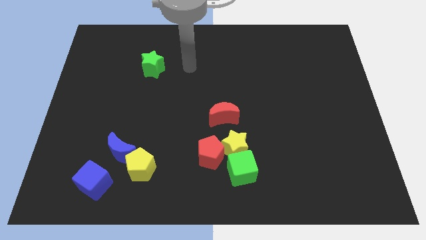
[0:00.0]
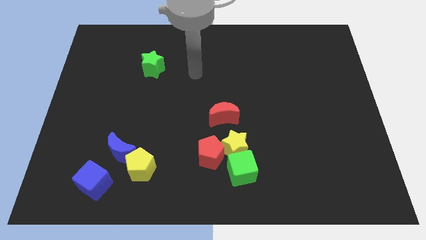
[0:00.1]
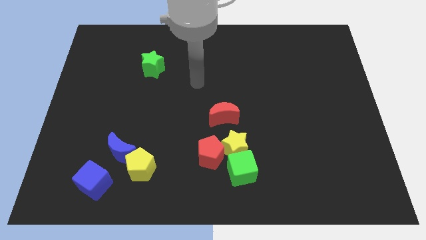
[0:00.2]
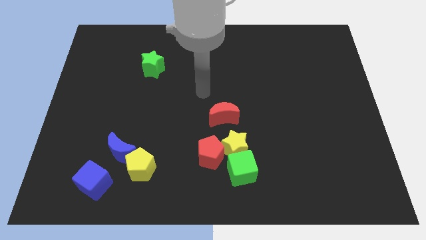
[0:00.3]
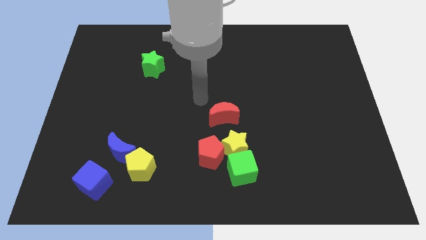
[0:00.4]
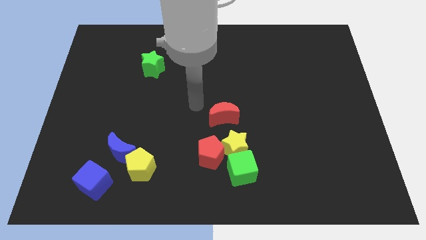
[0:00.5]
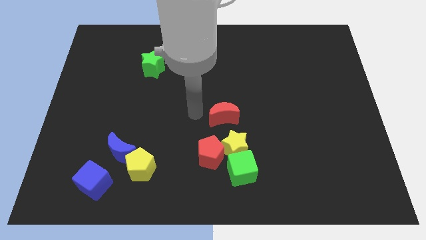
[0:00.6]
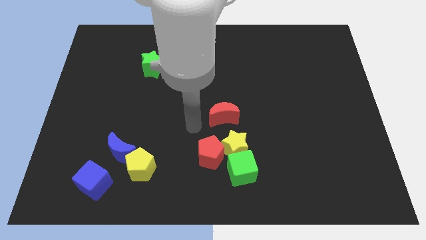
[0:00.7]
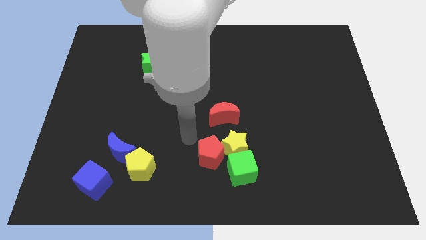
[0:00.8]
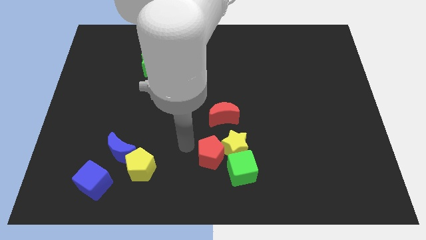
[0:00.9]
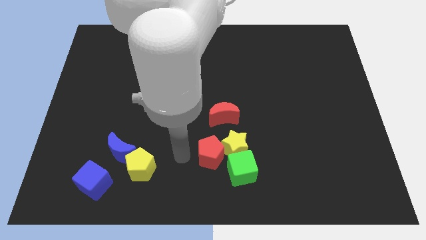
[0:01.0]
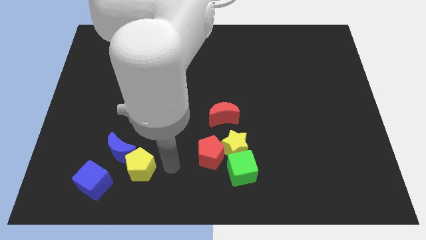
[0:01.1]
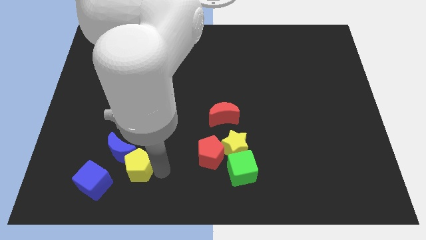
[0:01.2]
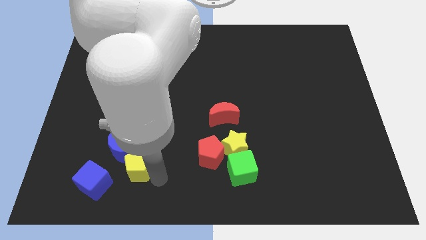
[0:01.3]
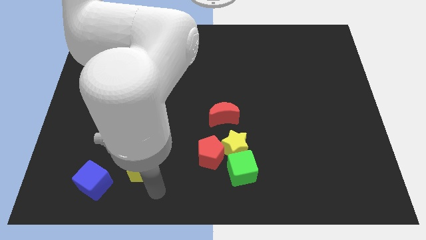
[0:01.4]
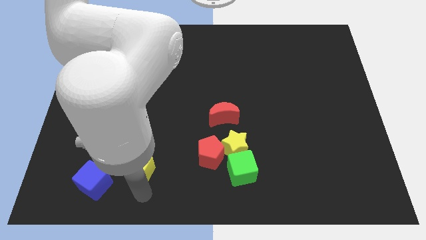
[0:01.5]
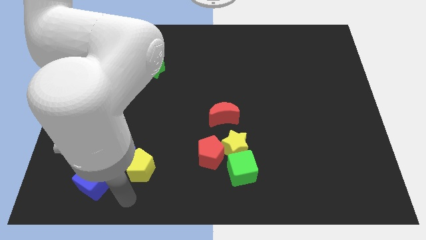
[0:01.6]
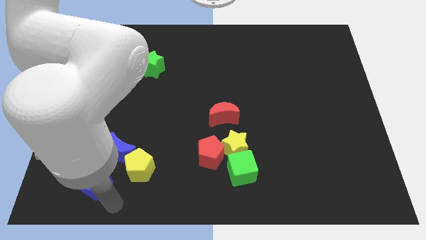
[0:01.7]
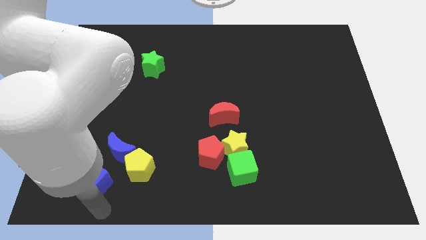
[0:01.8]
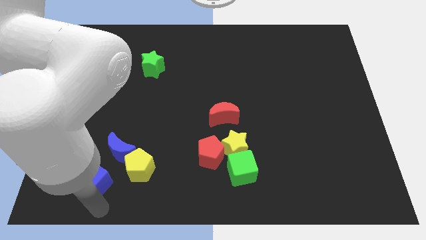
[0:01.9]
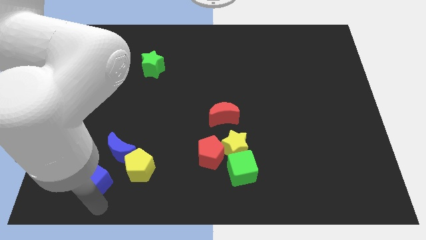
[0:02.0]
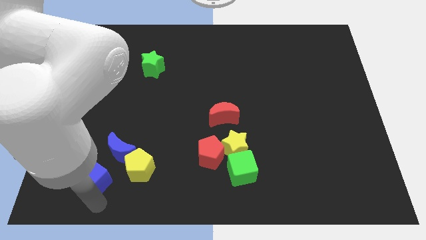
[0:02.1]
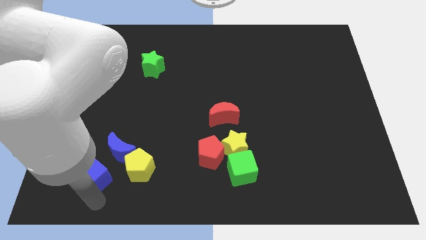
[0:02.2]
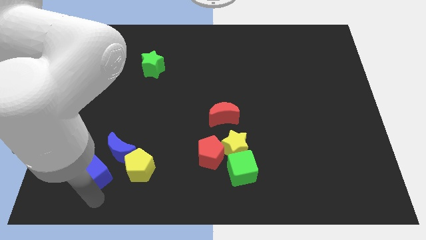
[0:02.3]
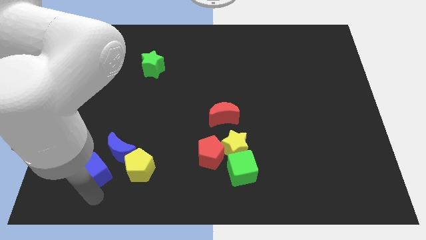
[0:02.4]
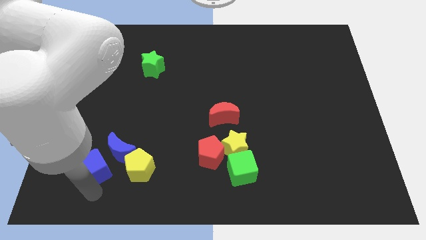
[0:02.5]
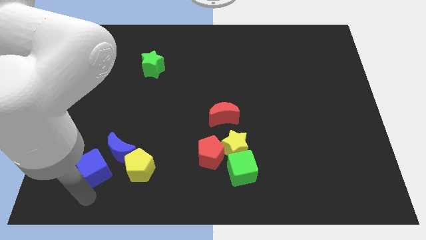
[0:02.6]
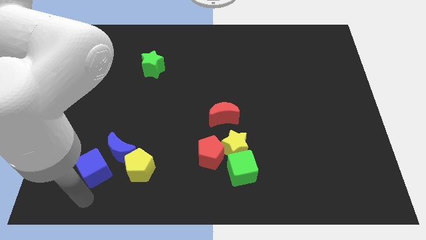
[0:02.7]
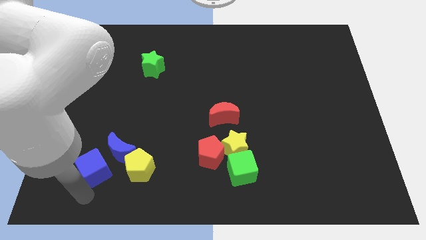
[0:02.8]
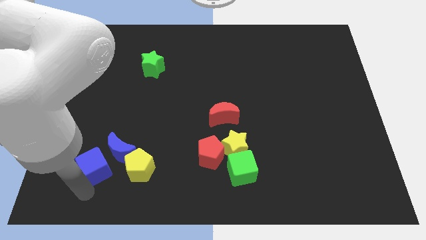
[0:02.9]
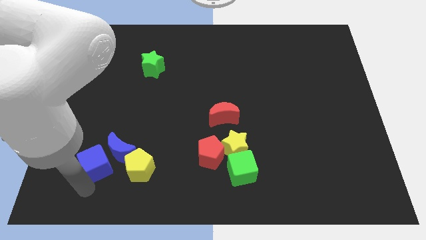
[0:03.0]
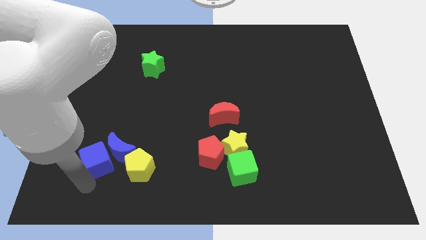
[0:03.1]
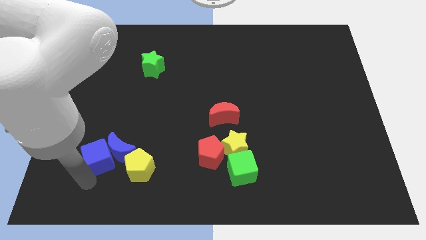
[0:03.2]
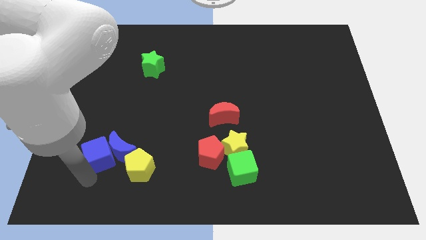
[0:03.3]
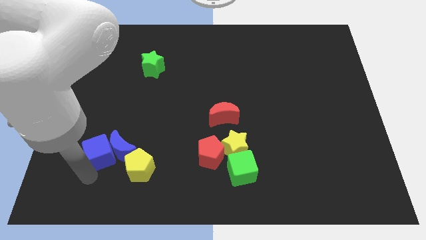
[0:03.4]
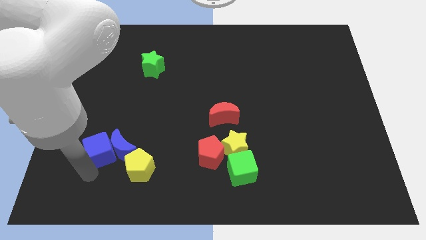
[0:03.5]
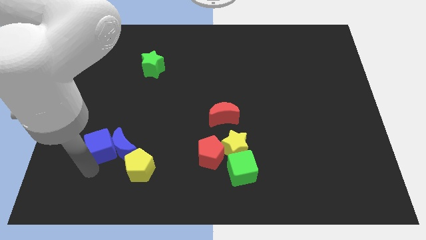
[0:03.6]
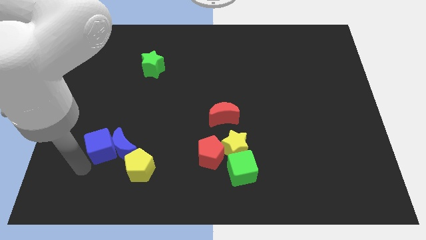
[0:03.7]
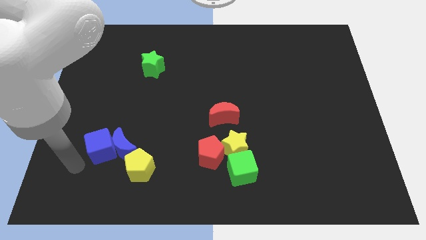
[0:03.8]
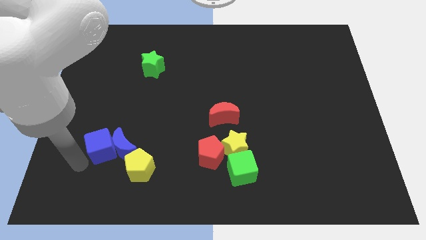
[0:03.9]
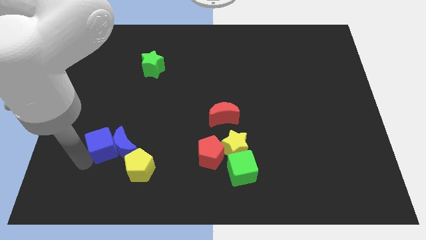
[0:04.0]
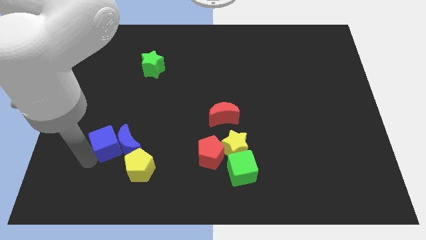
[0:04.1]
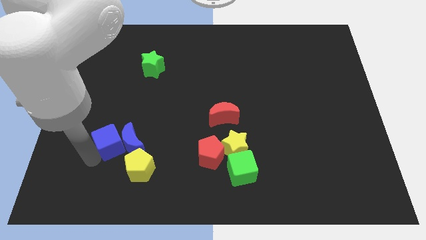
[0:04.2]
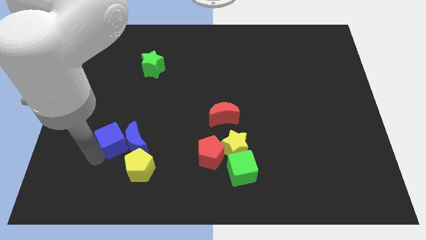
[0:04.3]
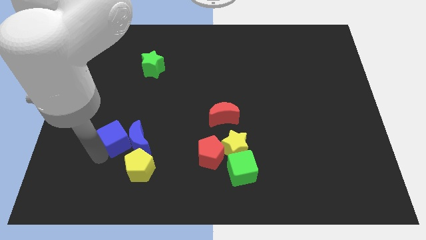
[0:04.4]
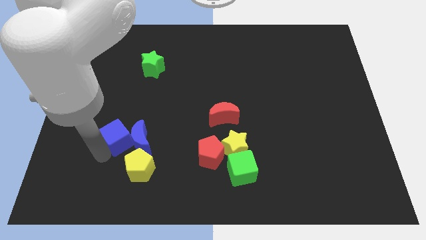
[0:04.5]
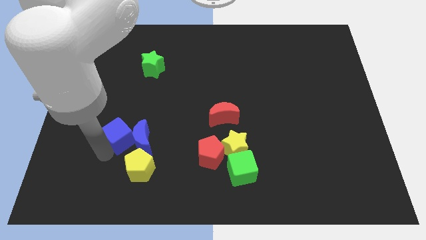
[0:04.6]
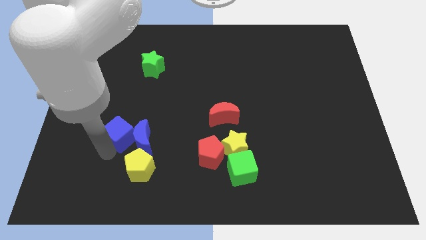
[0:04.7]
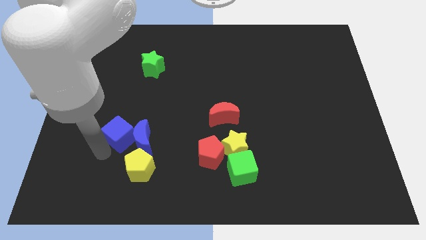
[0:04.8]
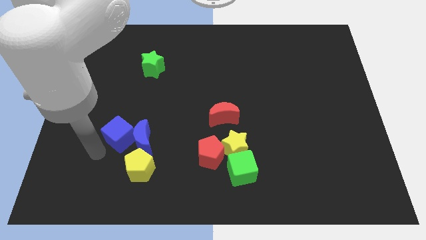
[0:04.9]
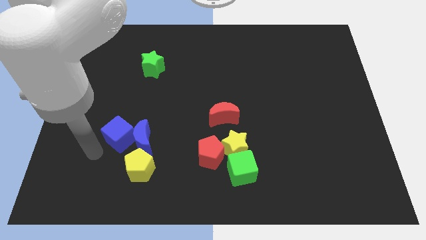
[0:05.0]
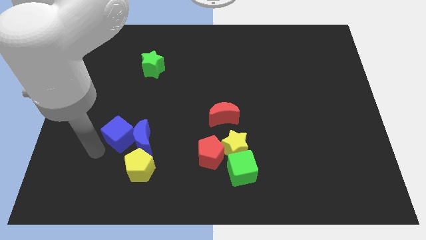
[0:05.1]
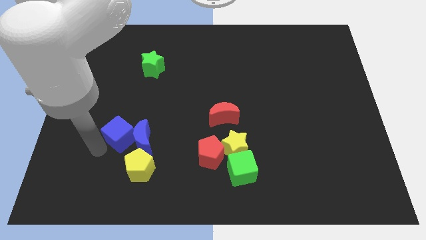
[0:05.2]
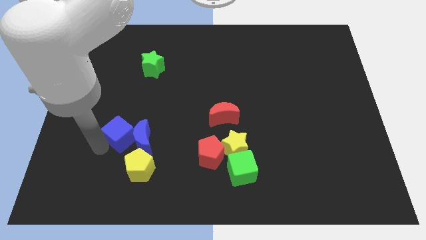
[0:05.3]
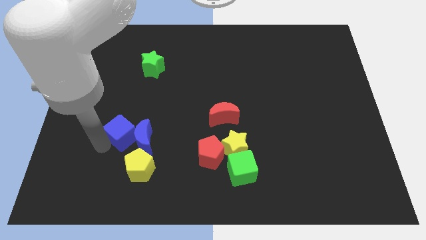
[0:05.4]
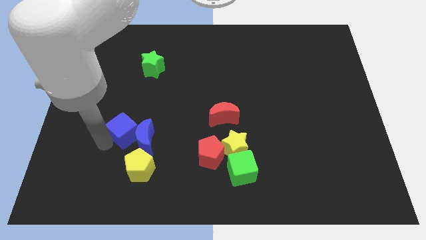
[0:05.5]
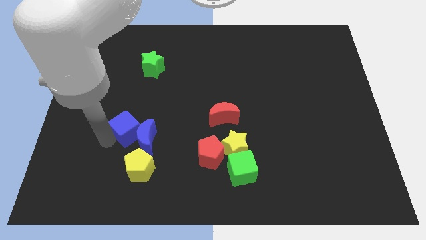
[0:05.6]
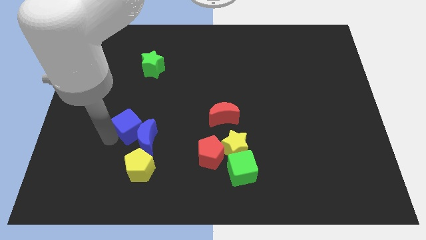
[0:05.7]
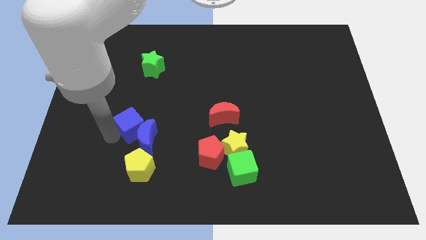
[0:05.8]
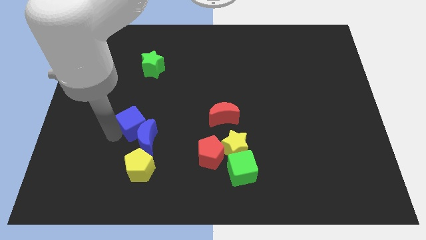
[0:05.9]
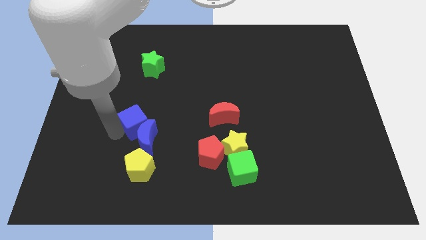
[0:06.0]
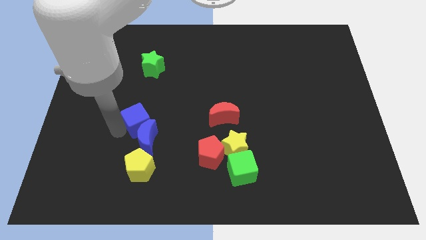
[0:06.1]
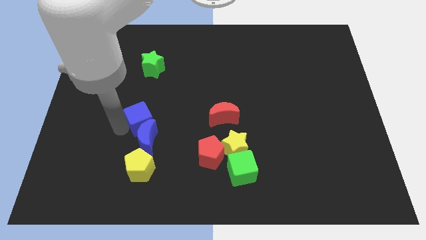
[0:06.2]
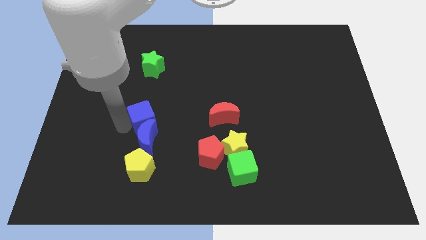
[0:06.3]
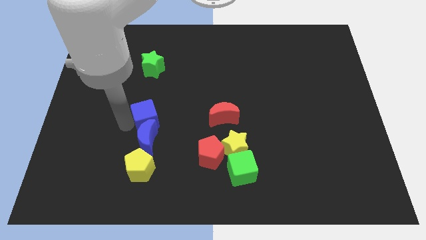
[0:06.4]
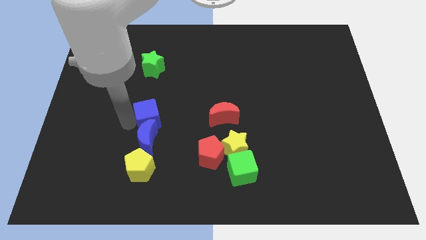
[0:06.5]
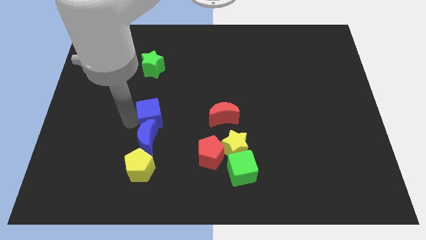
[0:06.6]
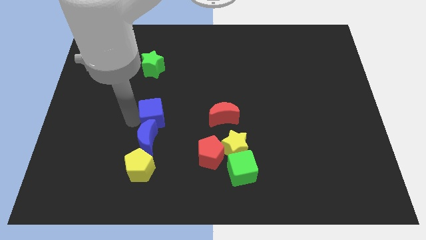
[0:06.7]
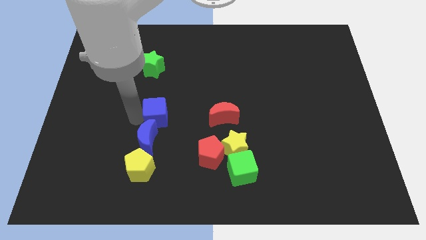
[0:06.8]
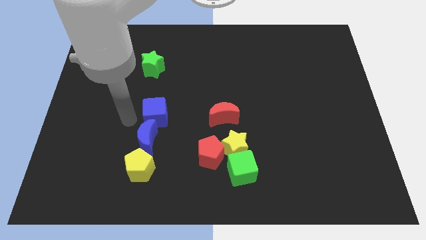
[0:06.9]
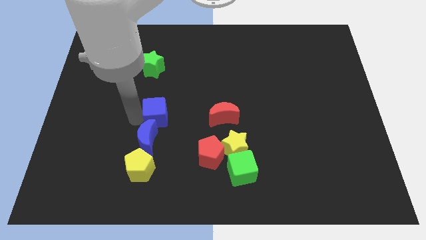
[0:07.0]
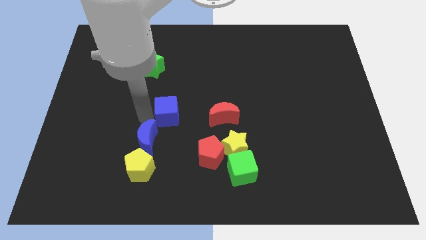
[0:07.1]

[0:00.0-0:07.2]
slide the blue cube to the center
